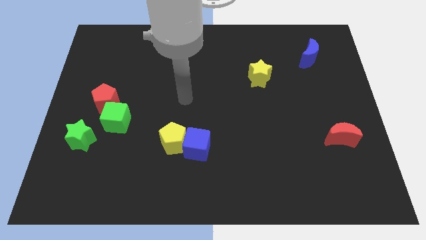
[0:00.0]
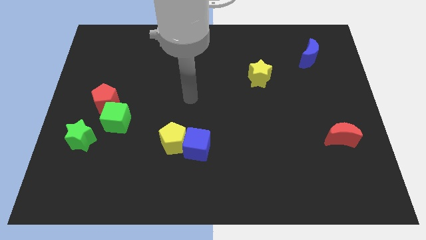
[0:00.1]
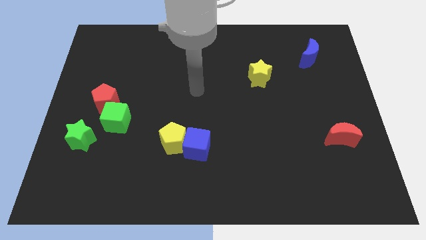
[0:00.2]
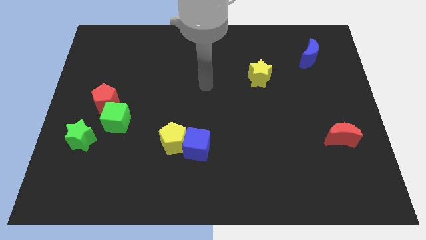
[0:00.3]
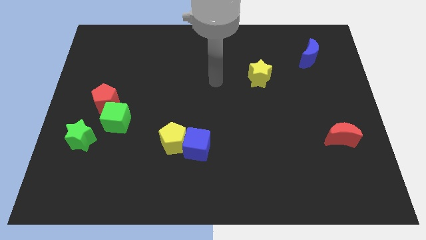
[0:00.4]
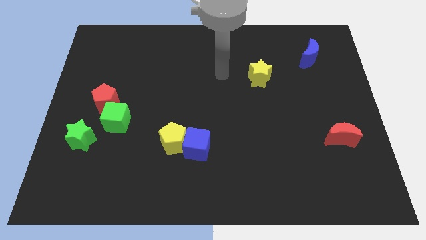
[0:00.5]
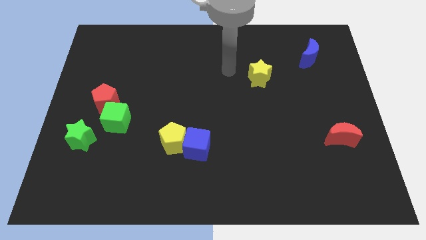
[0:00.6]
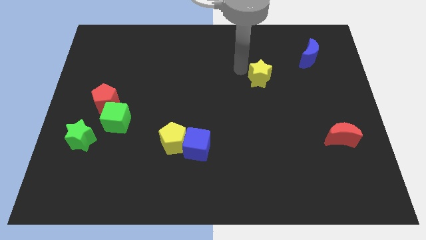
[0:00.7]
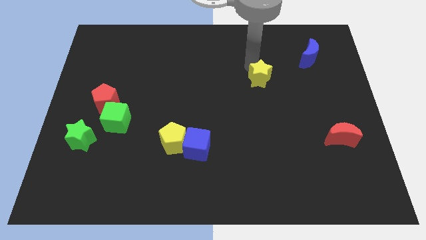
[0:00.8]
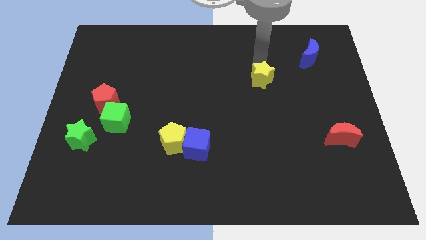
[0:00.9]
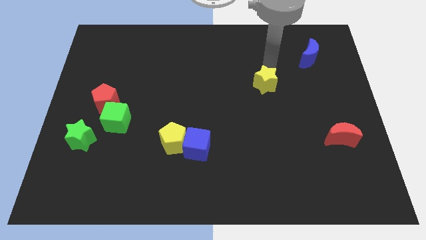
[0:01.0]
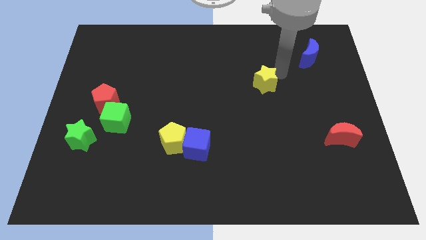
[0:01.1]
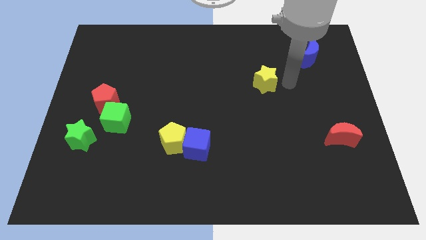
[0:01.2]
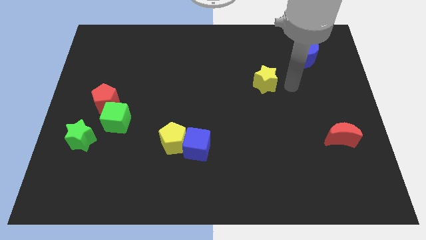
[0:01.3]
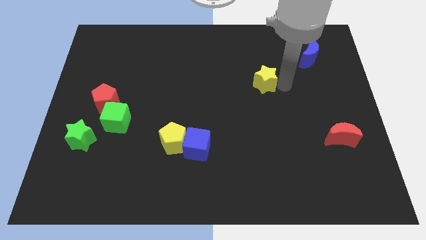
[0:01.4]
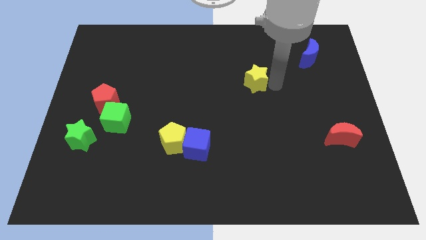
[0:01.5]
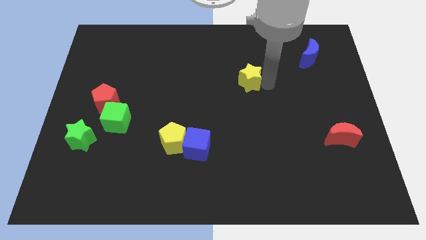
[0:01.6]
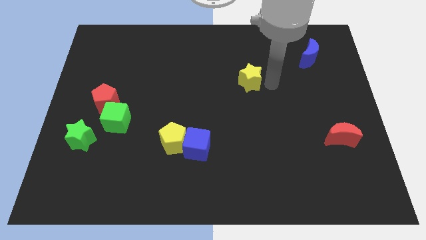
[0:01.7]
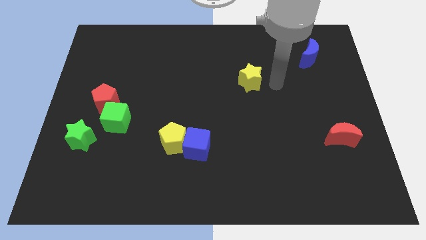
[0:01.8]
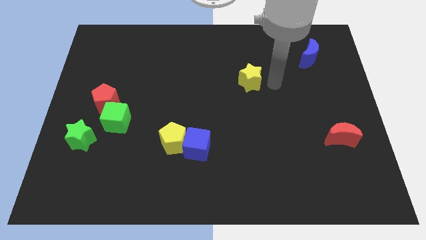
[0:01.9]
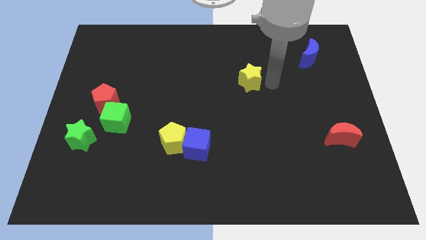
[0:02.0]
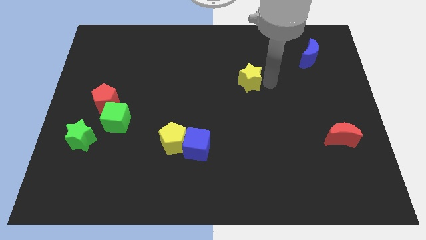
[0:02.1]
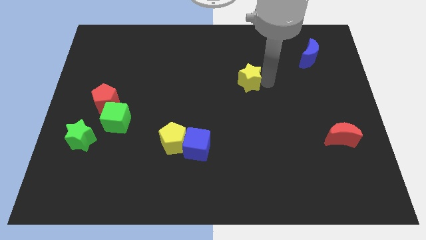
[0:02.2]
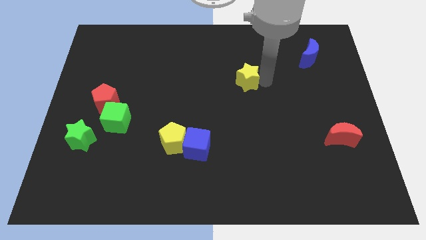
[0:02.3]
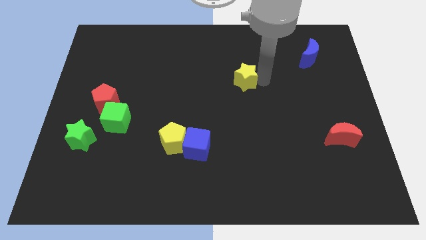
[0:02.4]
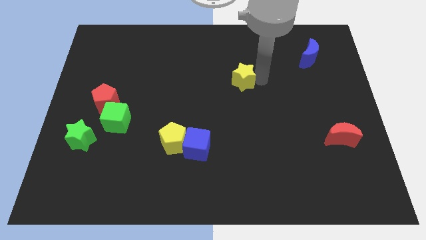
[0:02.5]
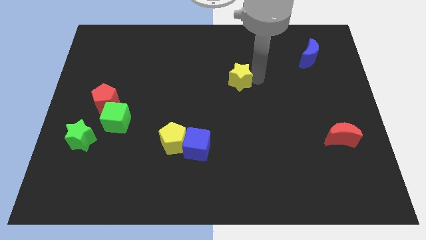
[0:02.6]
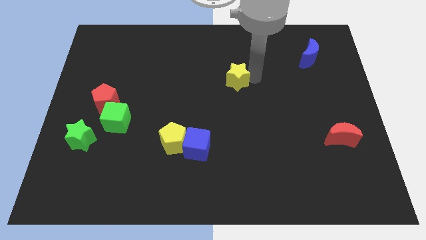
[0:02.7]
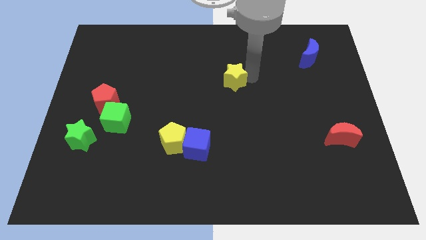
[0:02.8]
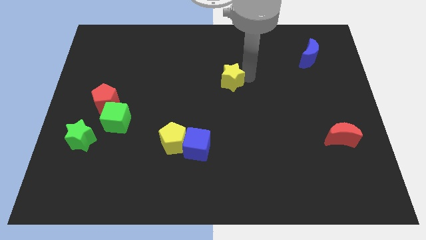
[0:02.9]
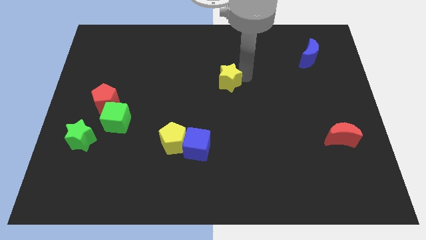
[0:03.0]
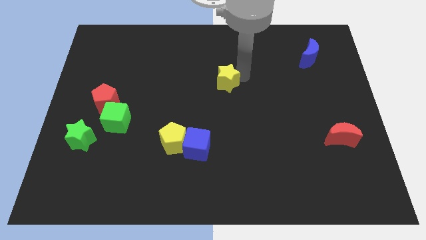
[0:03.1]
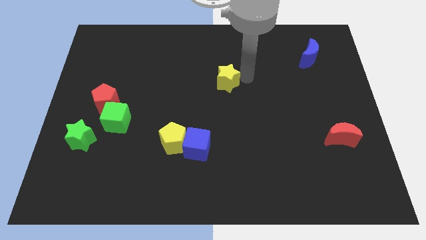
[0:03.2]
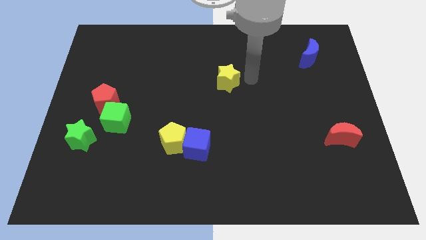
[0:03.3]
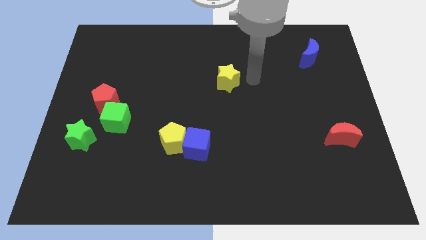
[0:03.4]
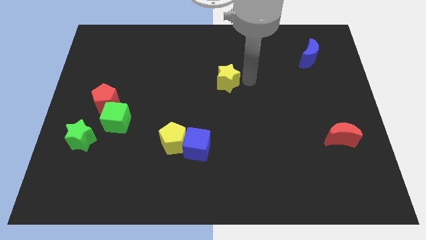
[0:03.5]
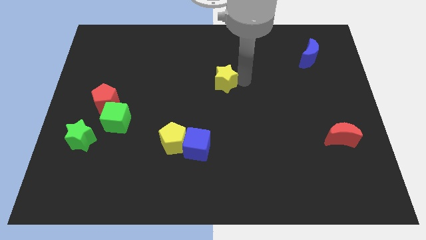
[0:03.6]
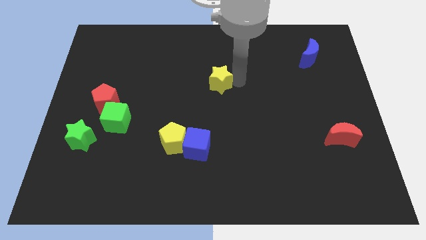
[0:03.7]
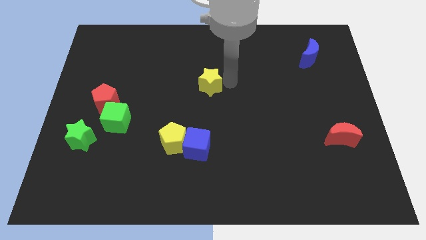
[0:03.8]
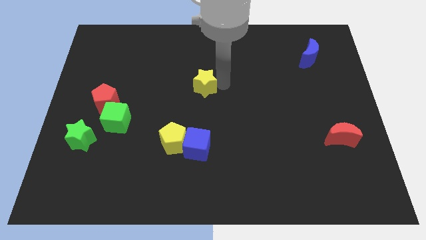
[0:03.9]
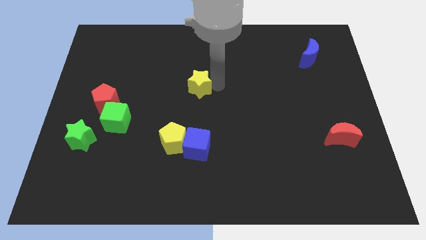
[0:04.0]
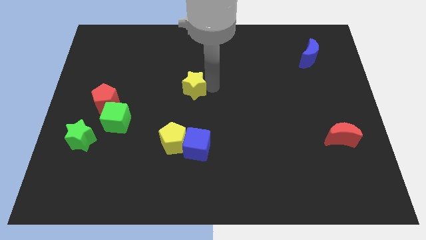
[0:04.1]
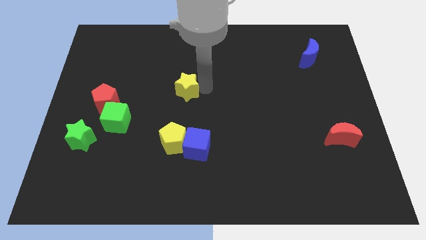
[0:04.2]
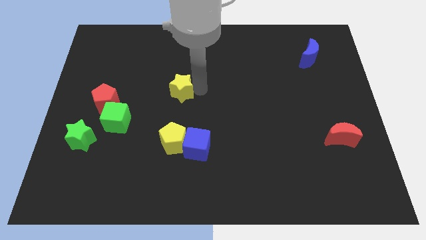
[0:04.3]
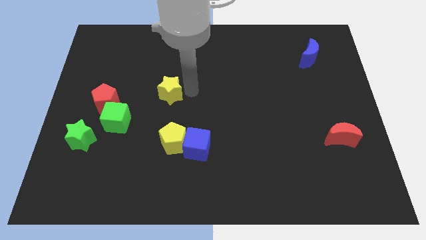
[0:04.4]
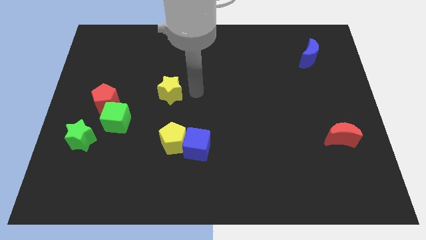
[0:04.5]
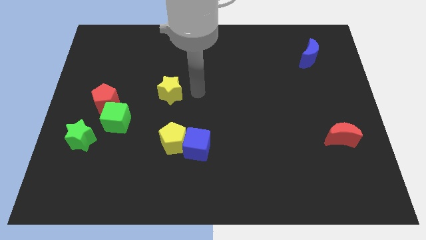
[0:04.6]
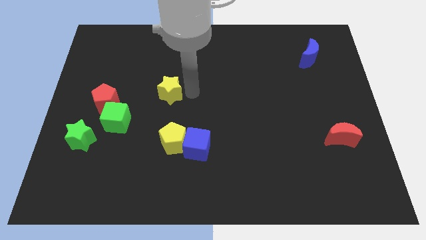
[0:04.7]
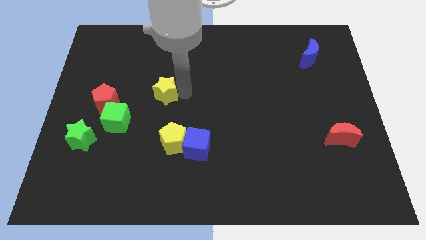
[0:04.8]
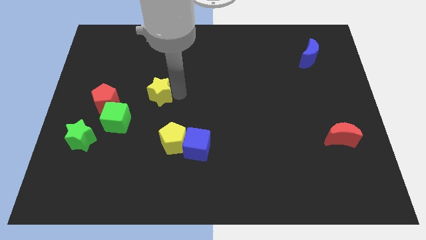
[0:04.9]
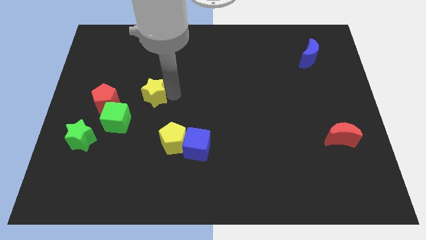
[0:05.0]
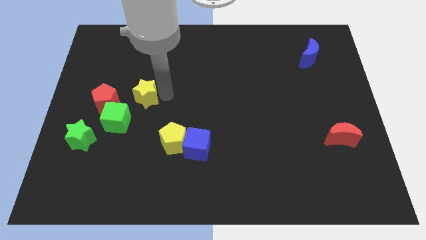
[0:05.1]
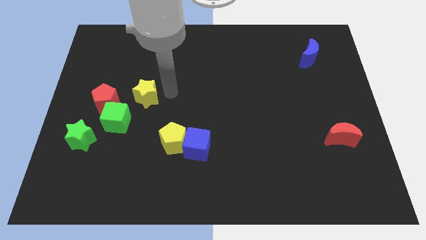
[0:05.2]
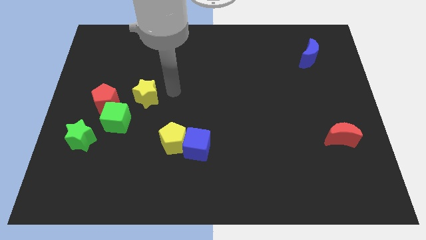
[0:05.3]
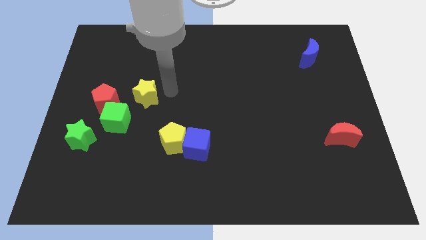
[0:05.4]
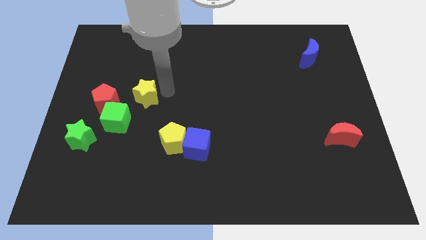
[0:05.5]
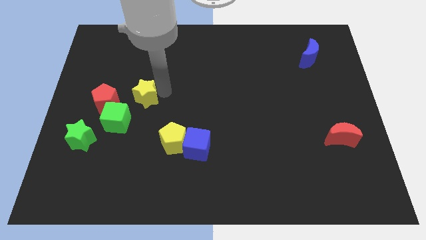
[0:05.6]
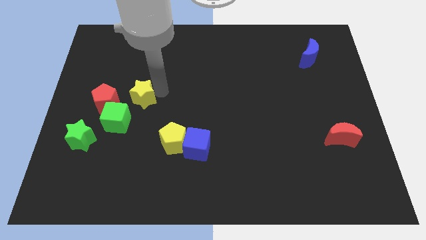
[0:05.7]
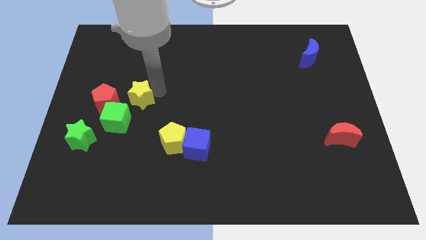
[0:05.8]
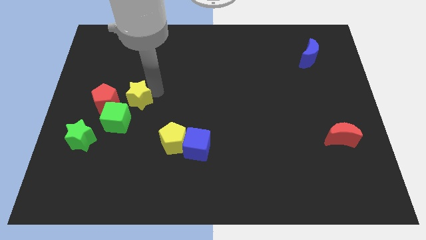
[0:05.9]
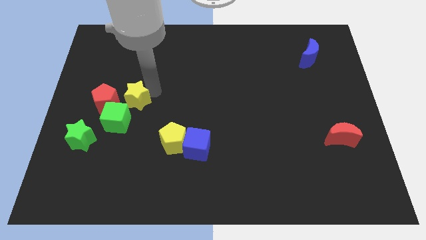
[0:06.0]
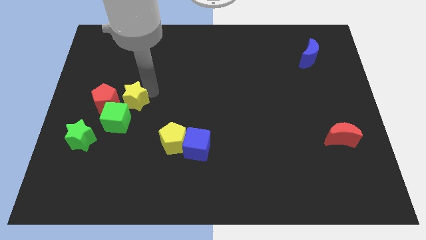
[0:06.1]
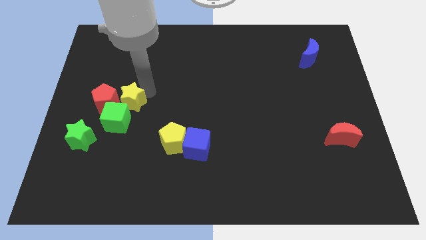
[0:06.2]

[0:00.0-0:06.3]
put the yellow star next to the red pentagon
